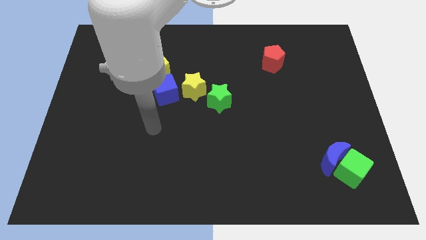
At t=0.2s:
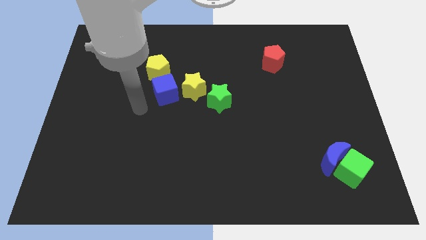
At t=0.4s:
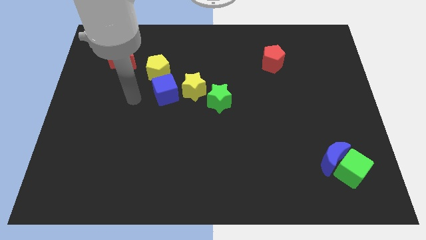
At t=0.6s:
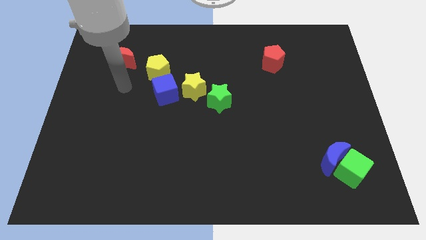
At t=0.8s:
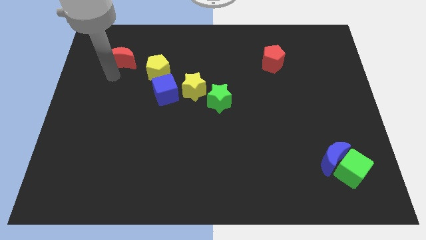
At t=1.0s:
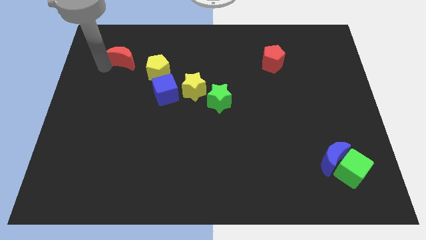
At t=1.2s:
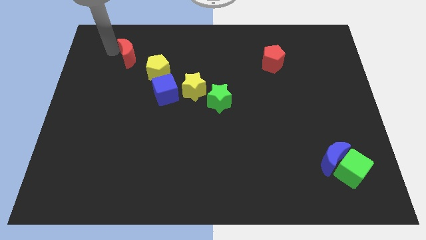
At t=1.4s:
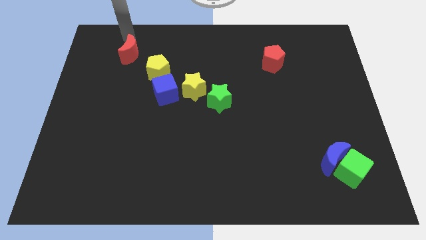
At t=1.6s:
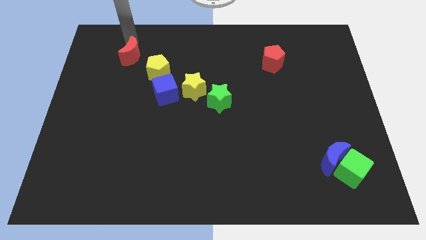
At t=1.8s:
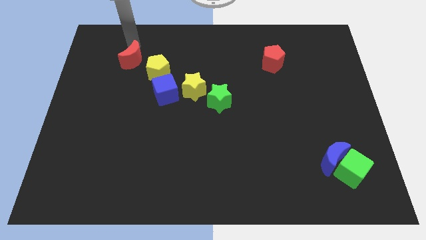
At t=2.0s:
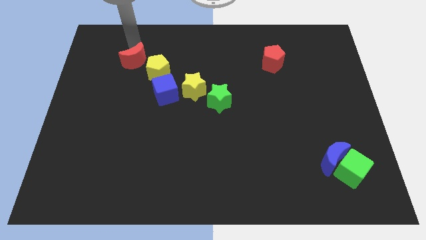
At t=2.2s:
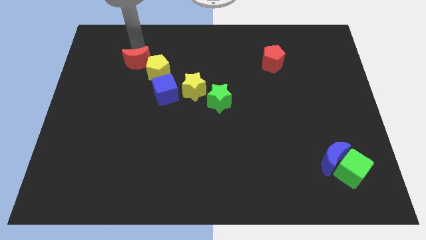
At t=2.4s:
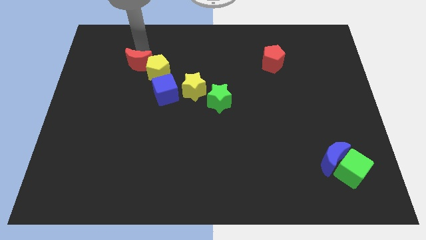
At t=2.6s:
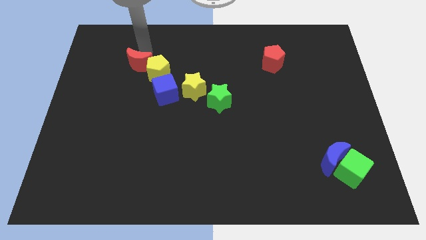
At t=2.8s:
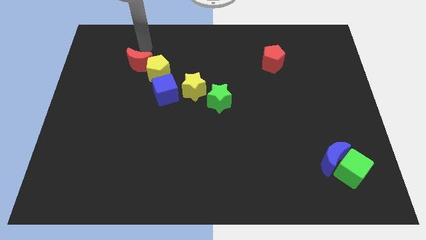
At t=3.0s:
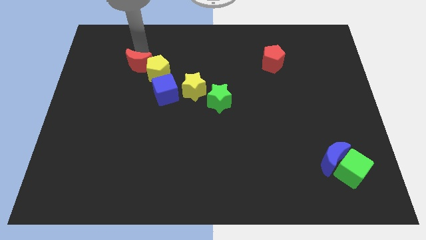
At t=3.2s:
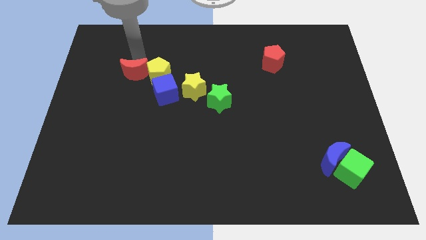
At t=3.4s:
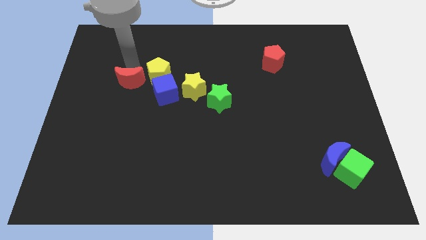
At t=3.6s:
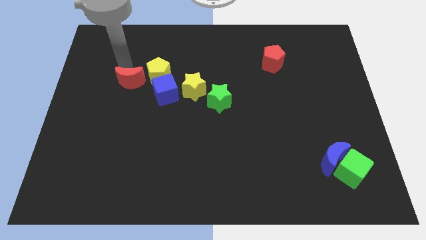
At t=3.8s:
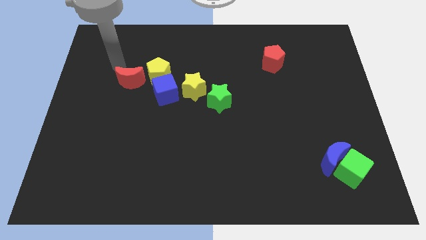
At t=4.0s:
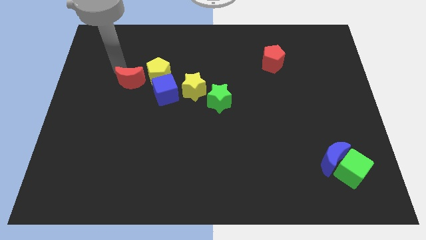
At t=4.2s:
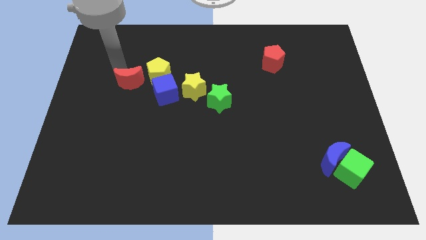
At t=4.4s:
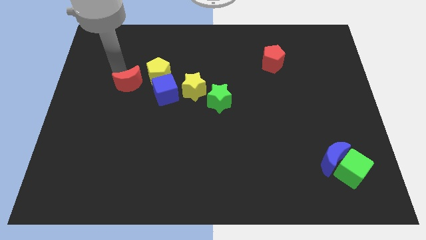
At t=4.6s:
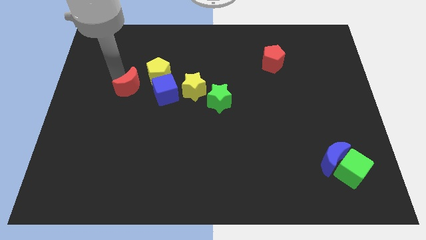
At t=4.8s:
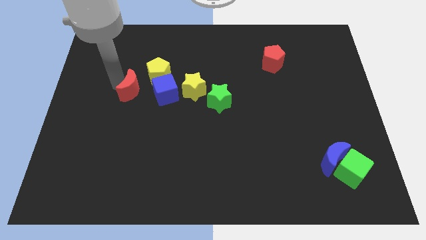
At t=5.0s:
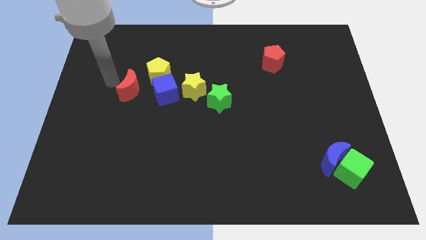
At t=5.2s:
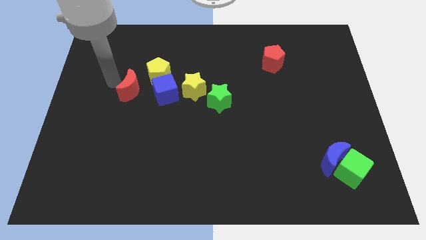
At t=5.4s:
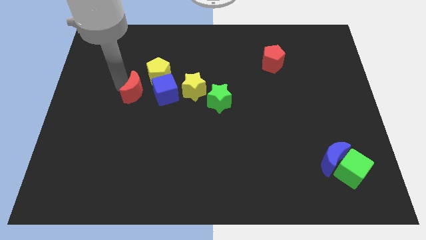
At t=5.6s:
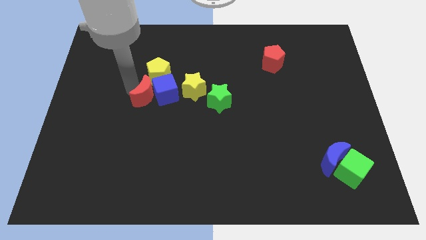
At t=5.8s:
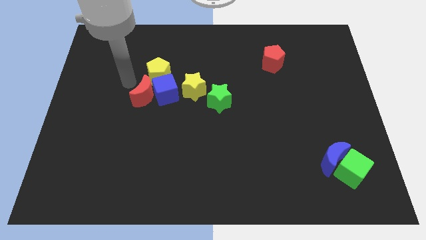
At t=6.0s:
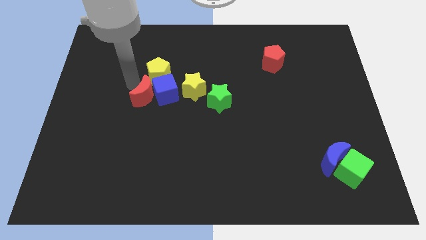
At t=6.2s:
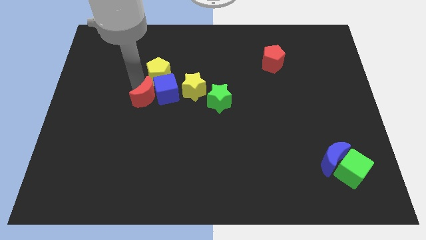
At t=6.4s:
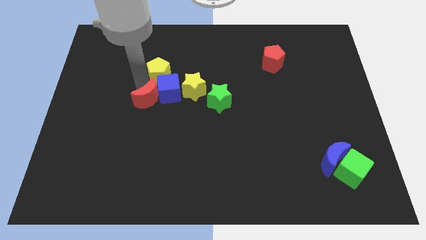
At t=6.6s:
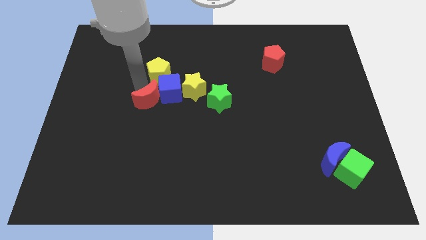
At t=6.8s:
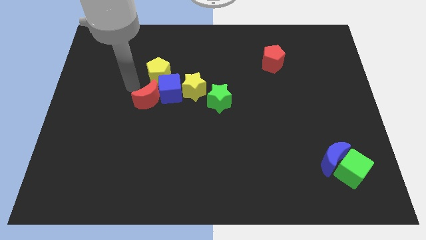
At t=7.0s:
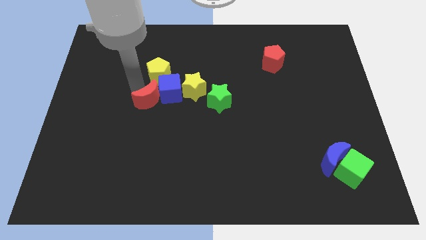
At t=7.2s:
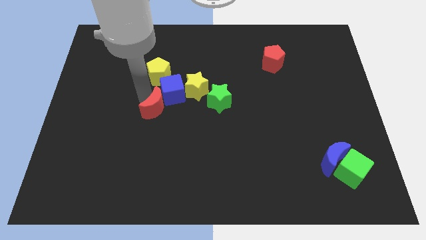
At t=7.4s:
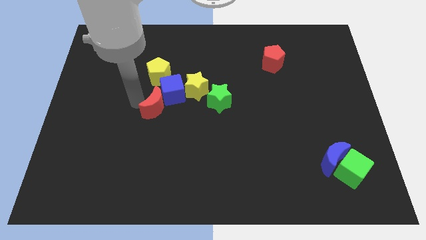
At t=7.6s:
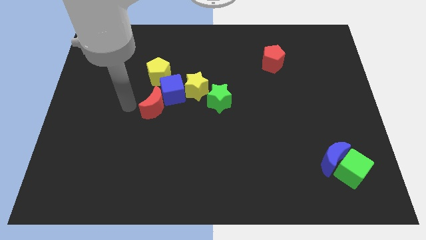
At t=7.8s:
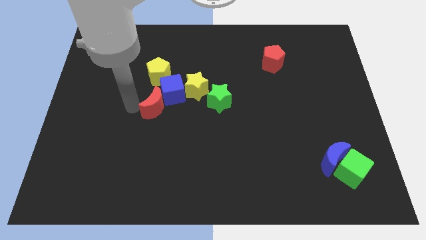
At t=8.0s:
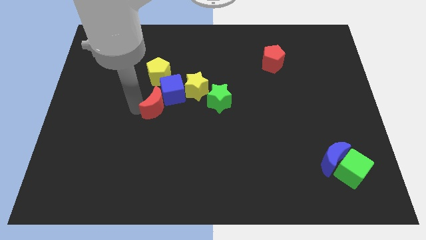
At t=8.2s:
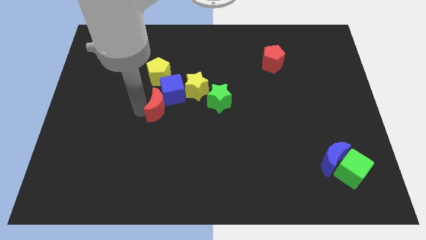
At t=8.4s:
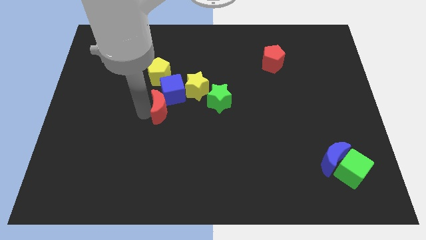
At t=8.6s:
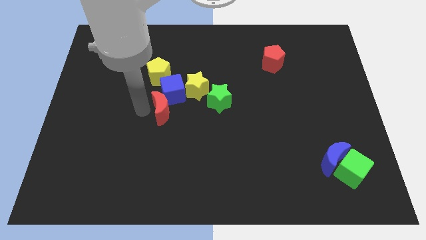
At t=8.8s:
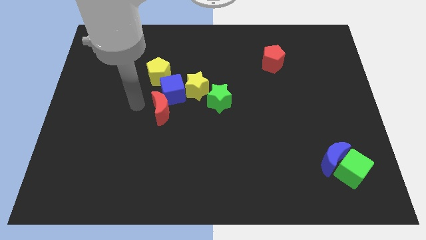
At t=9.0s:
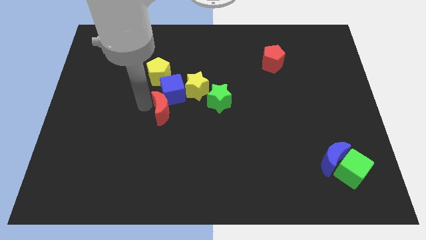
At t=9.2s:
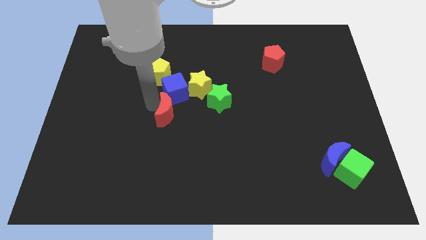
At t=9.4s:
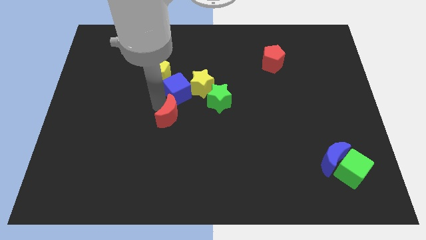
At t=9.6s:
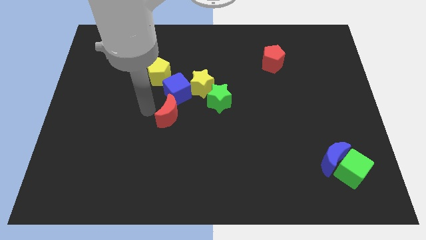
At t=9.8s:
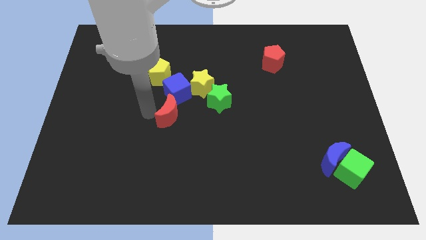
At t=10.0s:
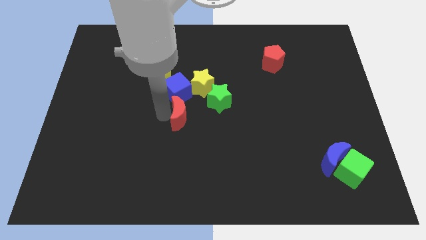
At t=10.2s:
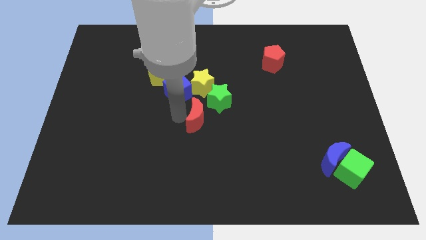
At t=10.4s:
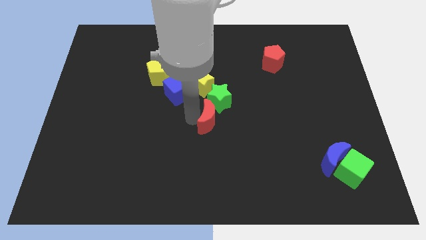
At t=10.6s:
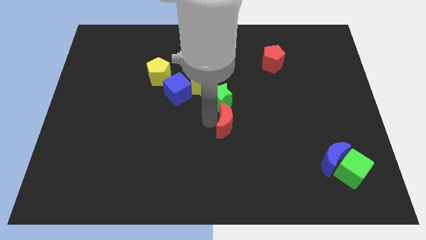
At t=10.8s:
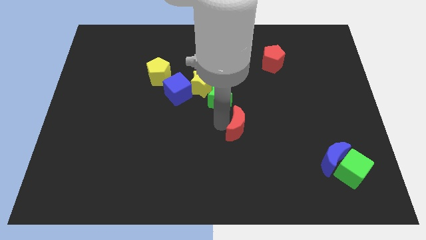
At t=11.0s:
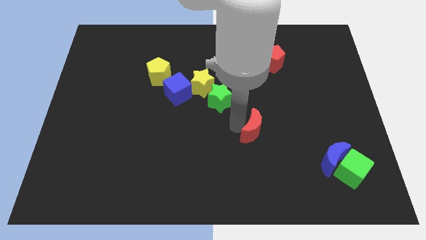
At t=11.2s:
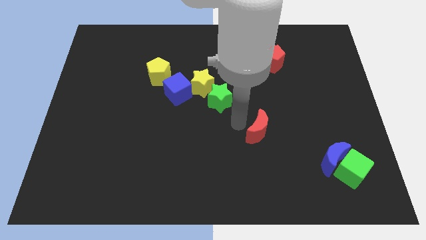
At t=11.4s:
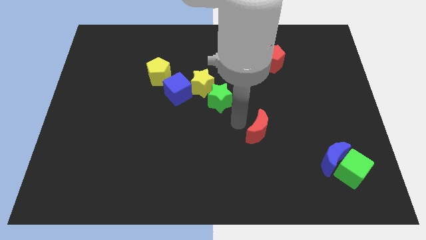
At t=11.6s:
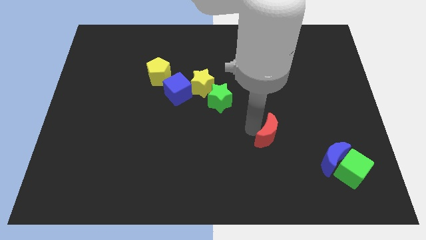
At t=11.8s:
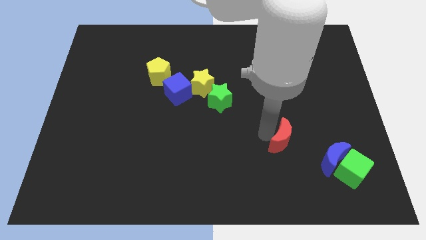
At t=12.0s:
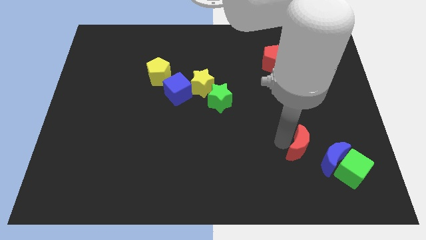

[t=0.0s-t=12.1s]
put the red moon diagonally up and to the left of the green cube

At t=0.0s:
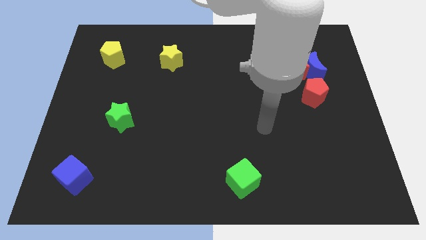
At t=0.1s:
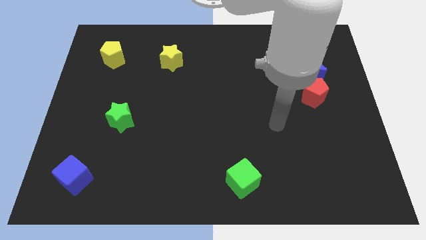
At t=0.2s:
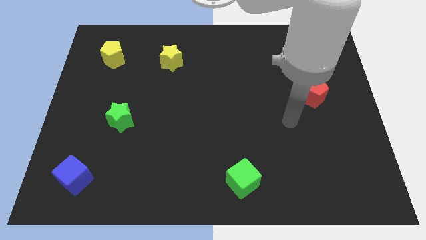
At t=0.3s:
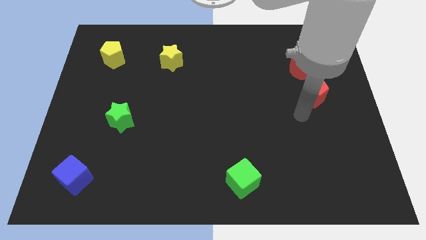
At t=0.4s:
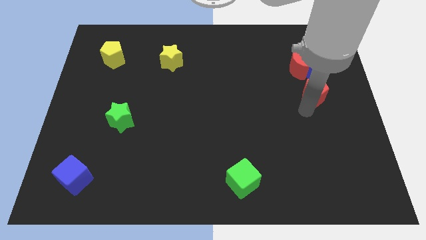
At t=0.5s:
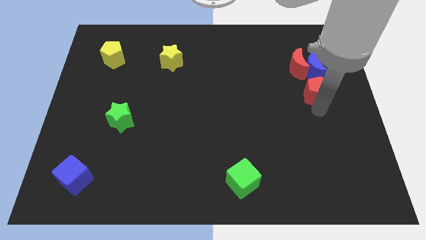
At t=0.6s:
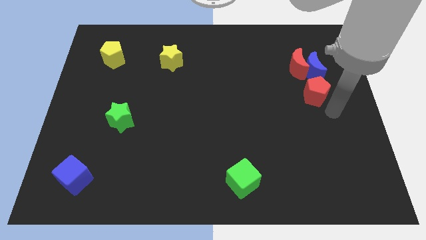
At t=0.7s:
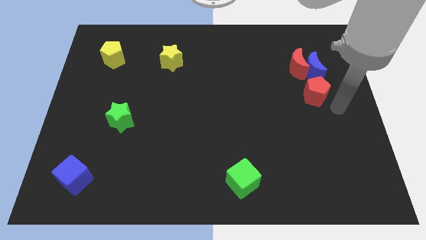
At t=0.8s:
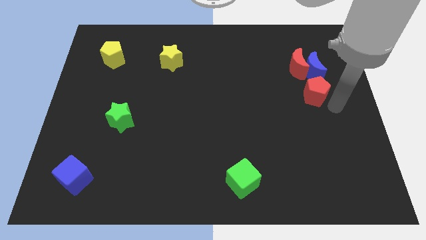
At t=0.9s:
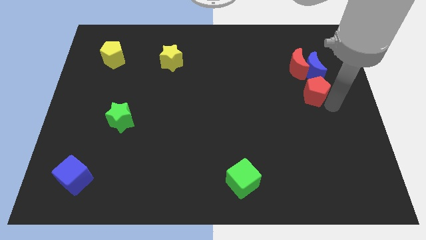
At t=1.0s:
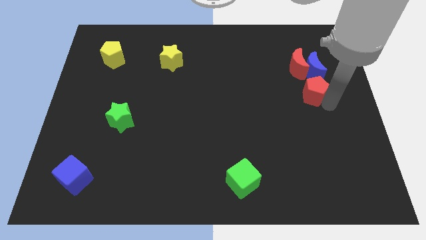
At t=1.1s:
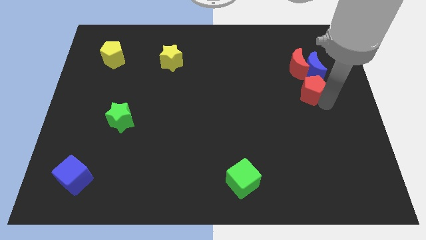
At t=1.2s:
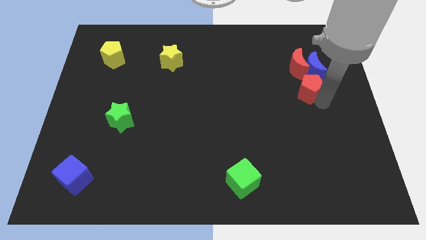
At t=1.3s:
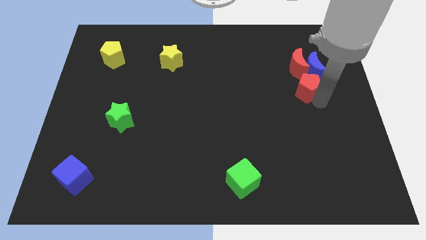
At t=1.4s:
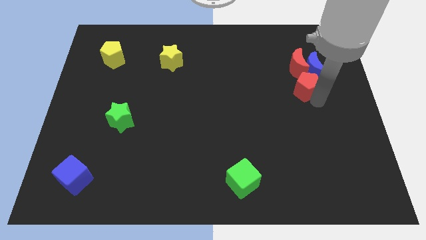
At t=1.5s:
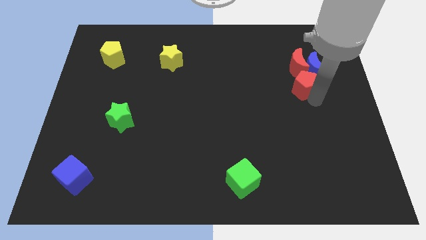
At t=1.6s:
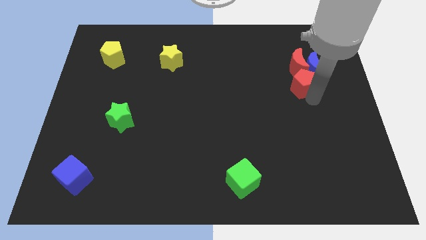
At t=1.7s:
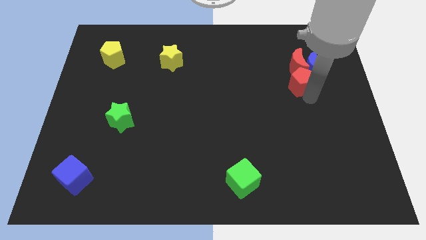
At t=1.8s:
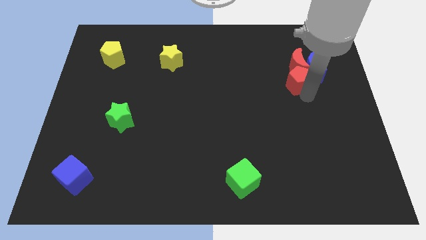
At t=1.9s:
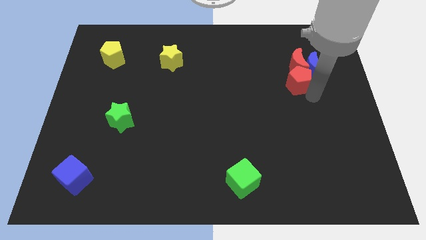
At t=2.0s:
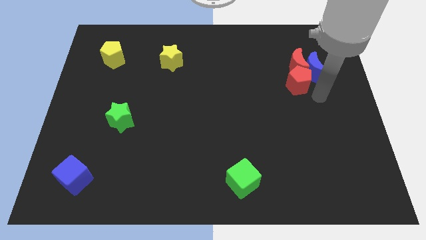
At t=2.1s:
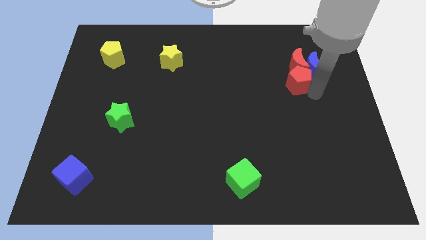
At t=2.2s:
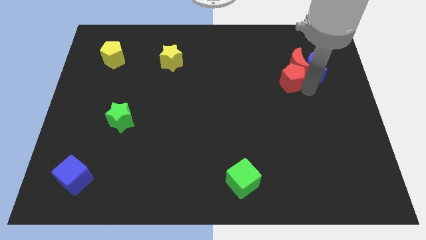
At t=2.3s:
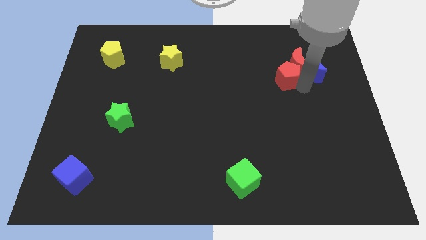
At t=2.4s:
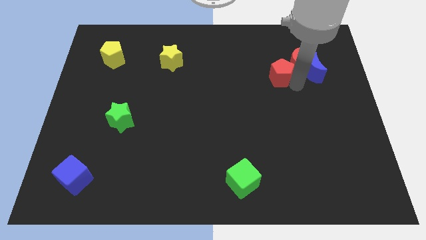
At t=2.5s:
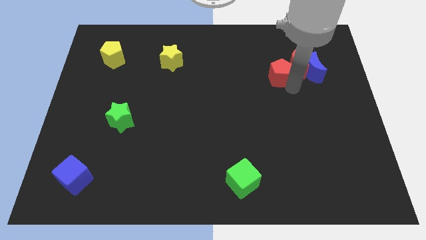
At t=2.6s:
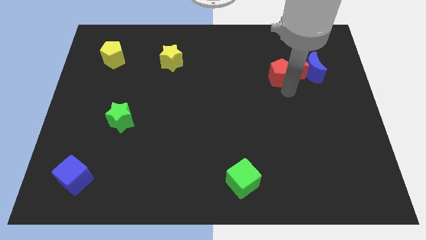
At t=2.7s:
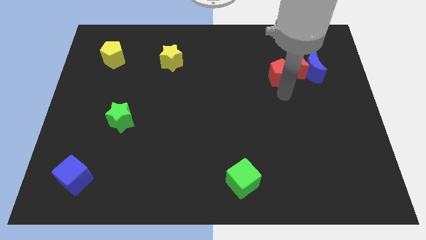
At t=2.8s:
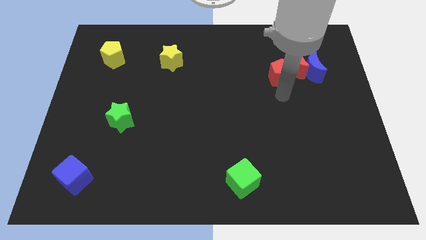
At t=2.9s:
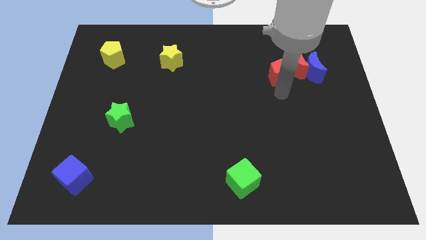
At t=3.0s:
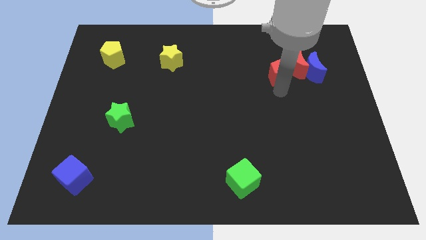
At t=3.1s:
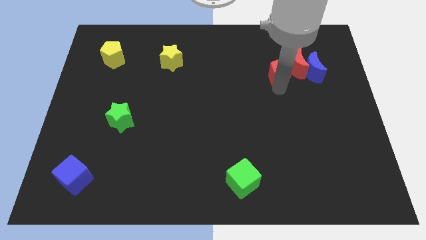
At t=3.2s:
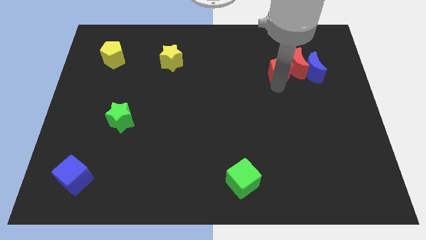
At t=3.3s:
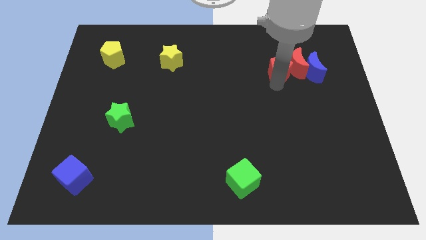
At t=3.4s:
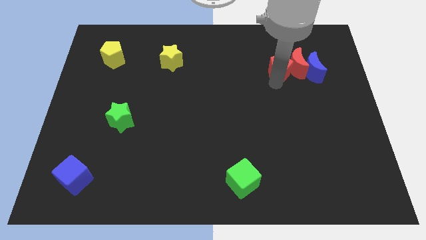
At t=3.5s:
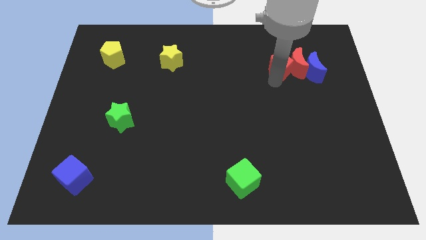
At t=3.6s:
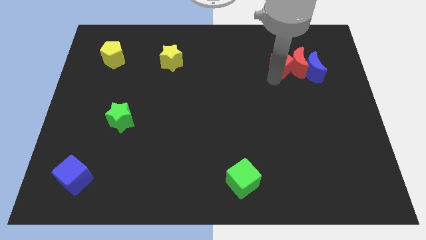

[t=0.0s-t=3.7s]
move the red pentagon diagonally up and to the left of the blue moon
